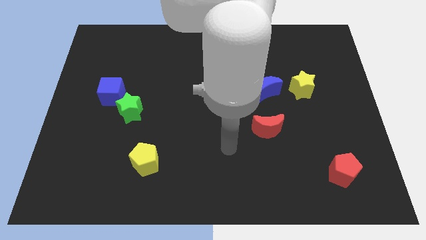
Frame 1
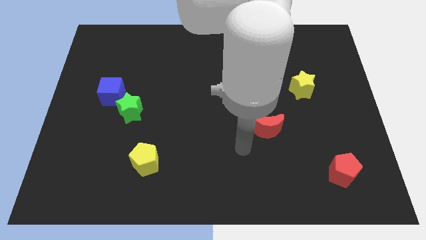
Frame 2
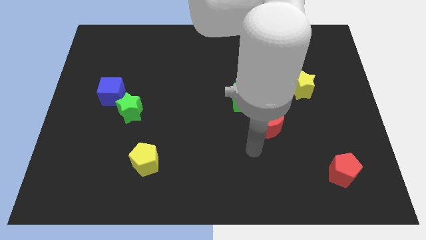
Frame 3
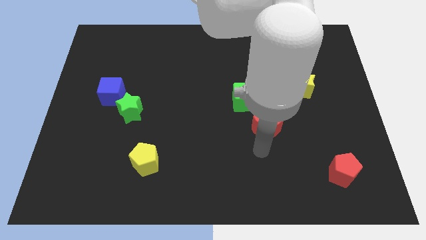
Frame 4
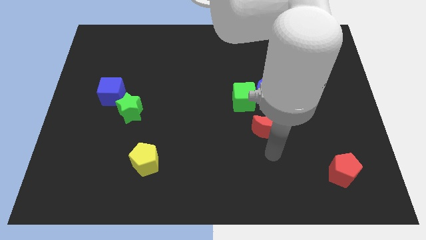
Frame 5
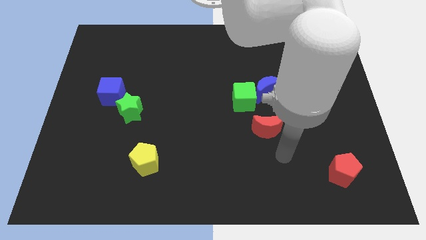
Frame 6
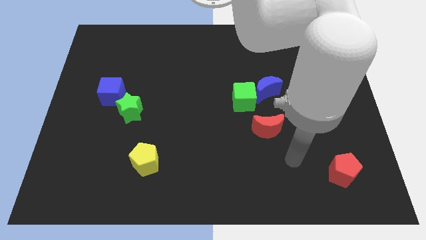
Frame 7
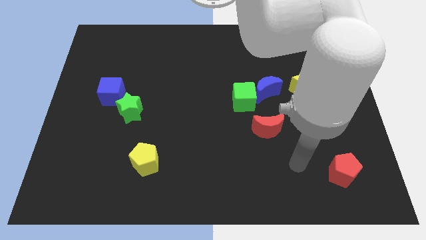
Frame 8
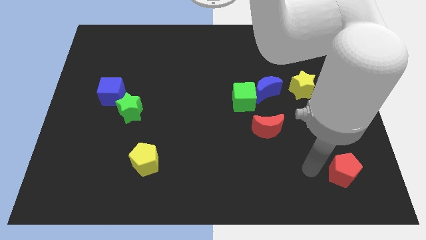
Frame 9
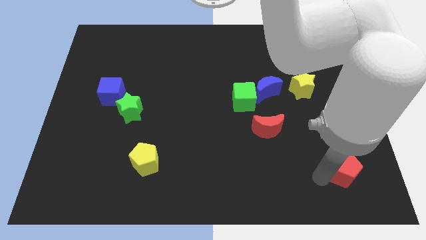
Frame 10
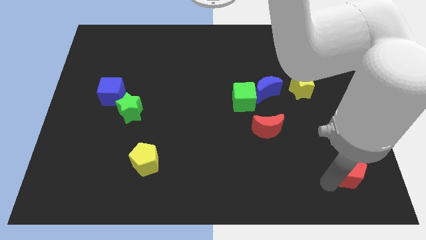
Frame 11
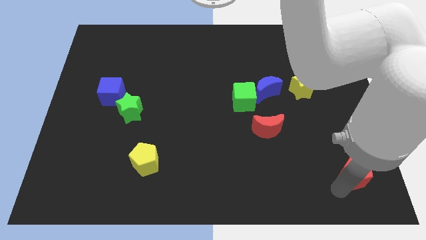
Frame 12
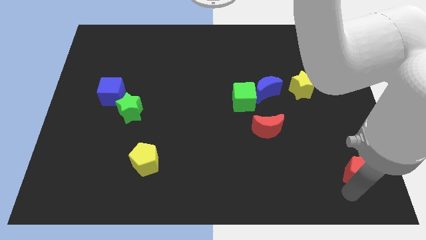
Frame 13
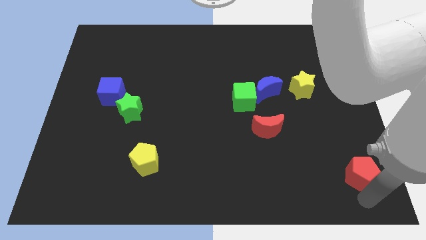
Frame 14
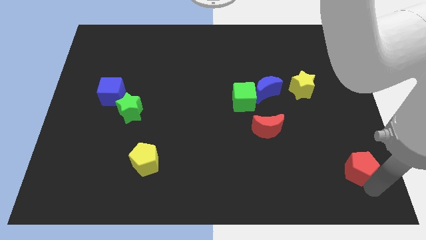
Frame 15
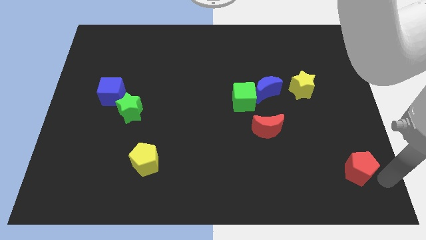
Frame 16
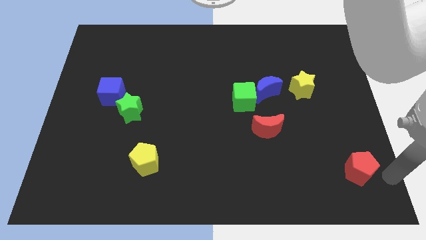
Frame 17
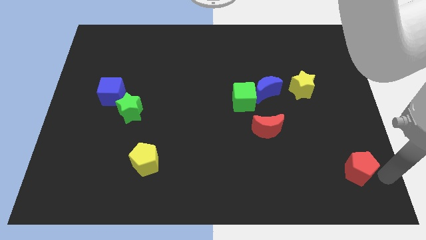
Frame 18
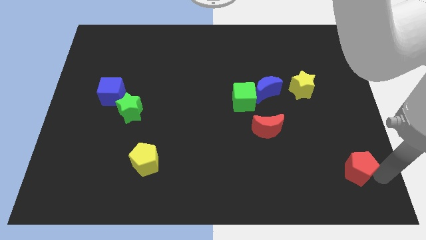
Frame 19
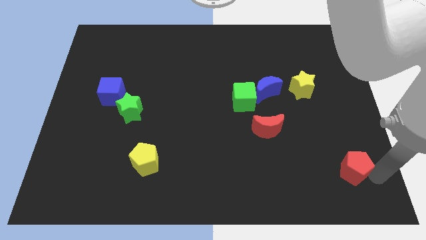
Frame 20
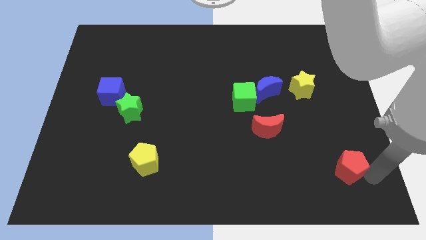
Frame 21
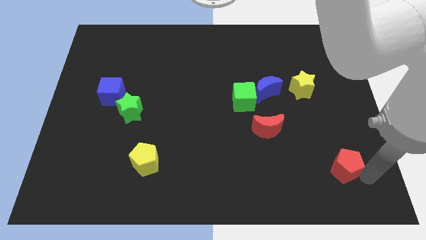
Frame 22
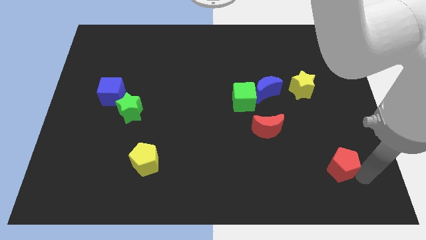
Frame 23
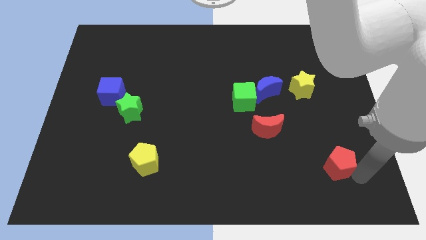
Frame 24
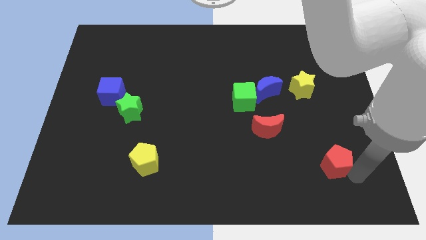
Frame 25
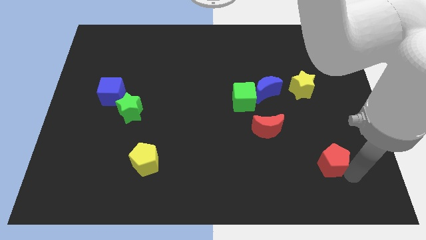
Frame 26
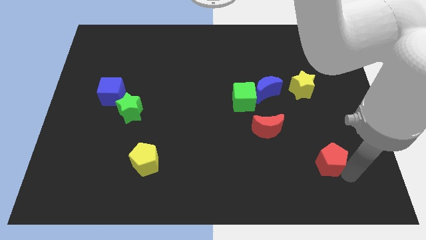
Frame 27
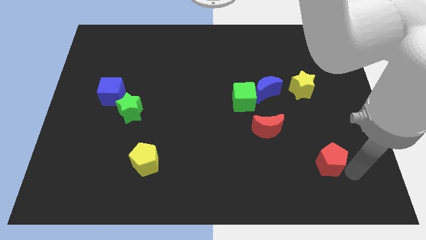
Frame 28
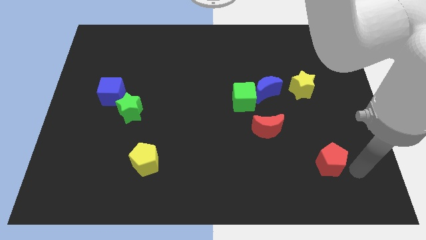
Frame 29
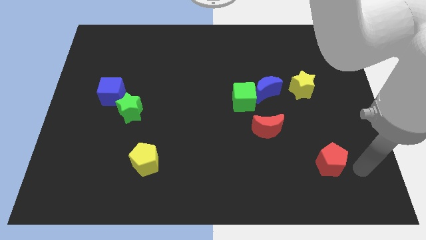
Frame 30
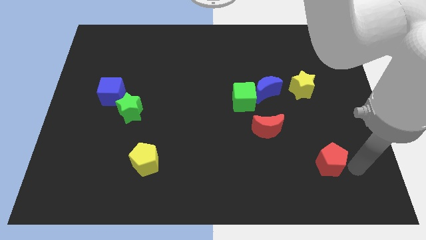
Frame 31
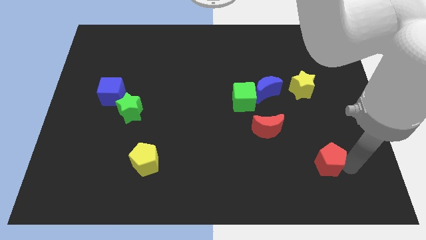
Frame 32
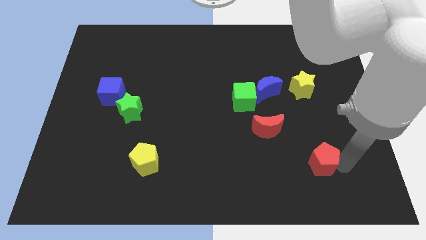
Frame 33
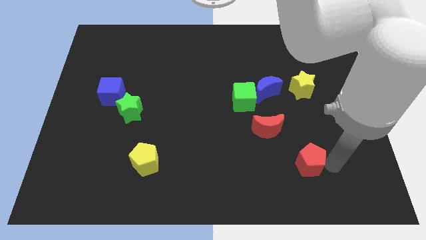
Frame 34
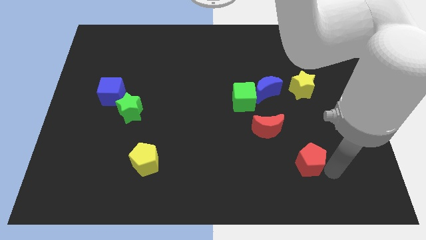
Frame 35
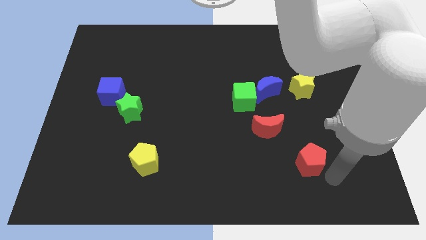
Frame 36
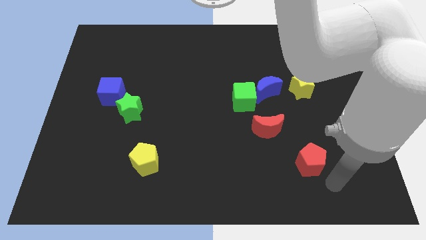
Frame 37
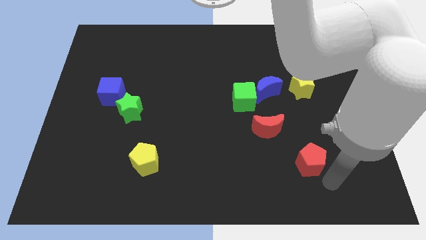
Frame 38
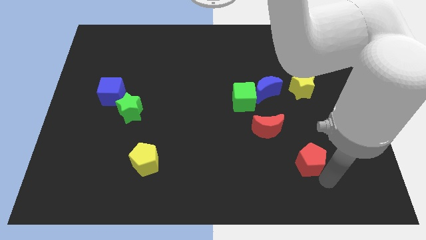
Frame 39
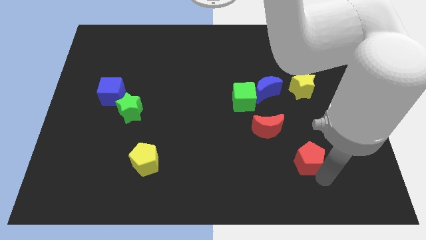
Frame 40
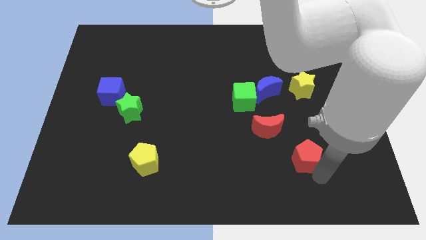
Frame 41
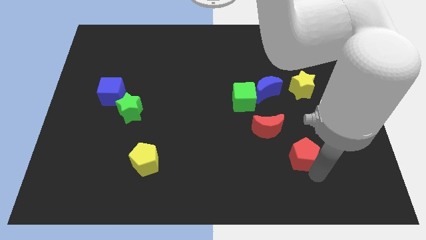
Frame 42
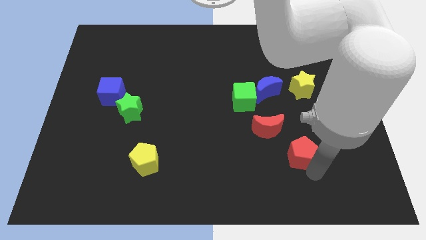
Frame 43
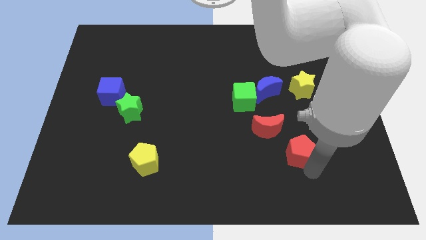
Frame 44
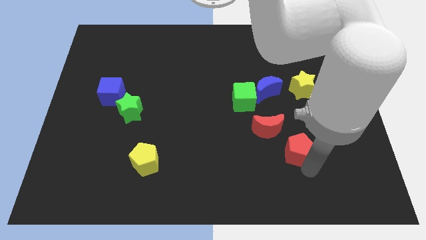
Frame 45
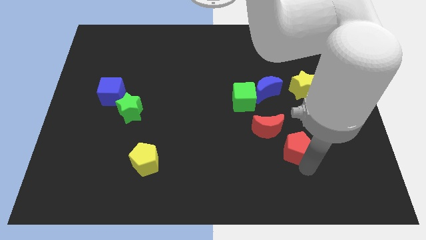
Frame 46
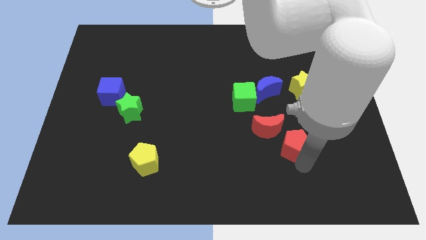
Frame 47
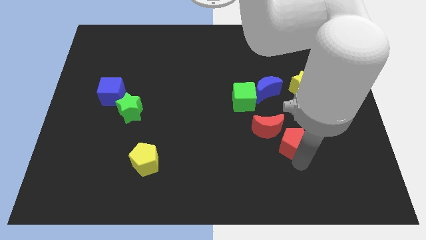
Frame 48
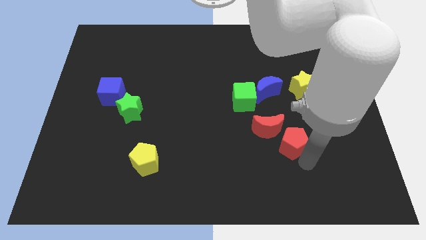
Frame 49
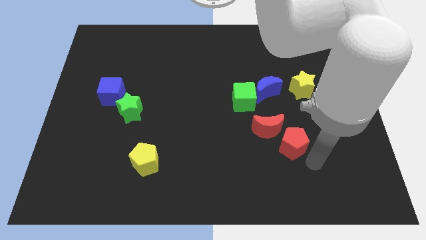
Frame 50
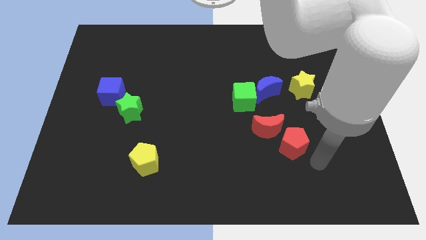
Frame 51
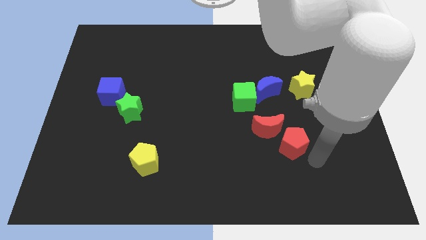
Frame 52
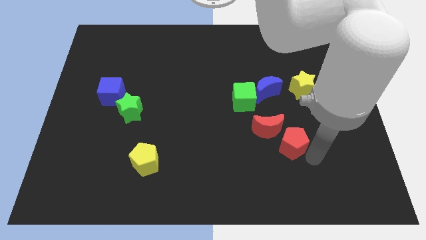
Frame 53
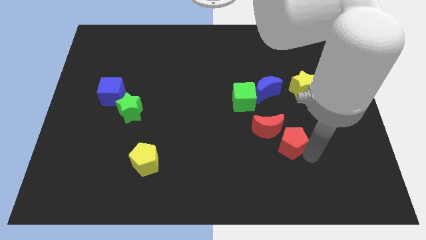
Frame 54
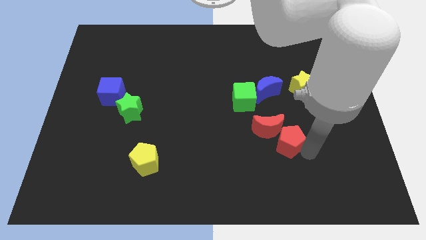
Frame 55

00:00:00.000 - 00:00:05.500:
slide the red pentagon to the red moon

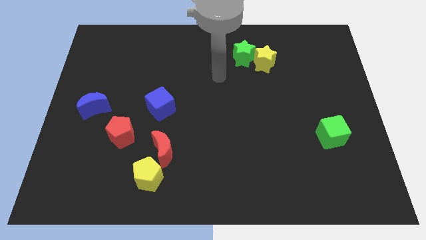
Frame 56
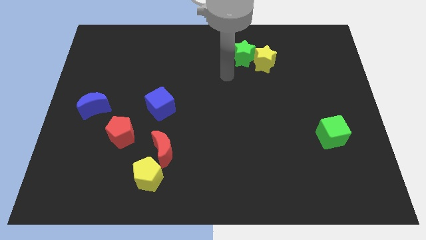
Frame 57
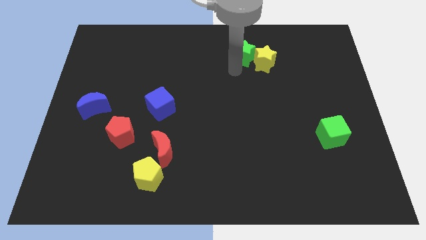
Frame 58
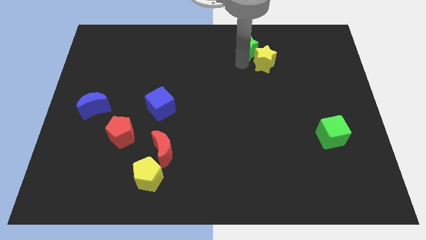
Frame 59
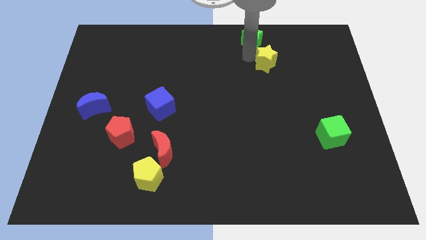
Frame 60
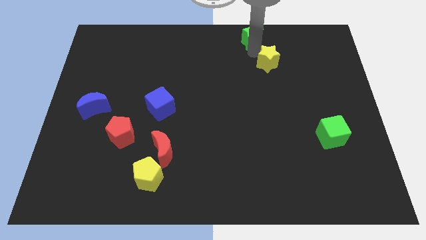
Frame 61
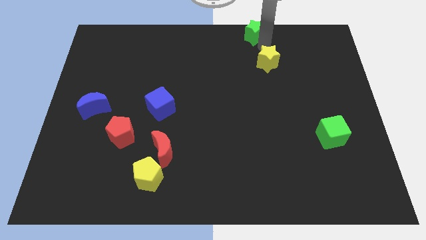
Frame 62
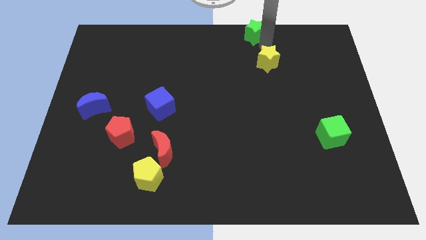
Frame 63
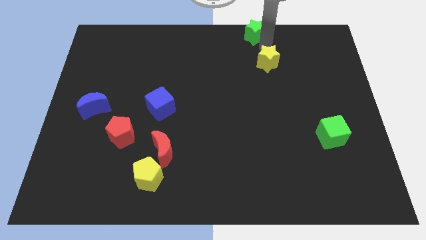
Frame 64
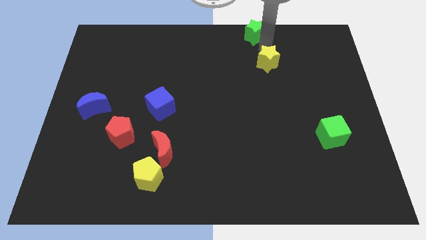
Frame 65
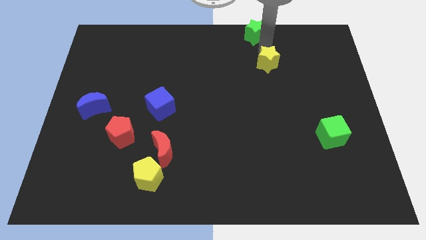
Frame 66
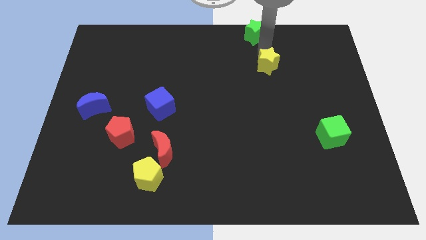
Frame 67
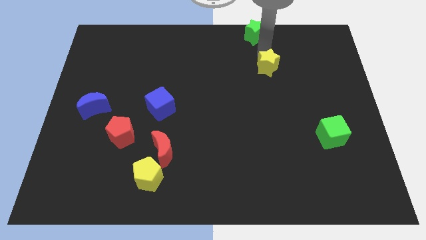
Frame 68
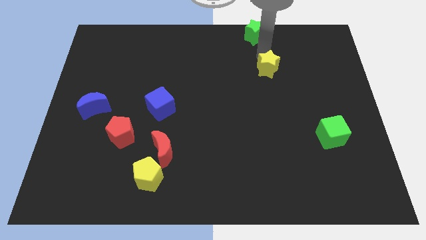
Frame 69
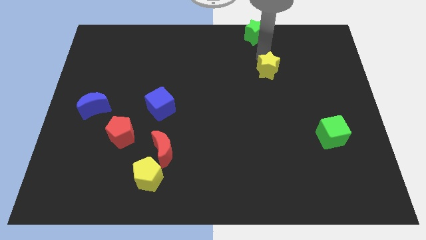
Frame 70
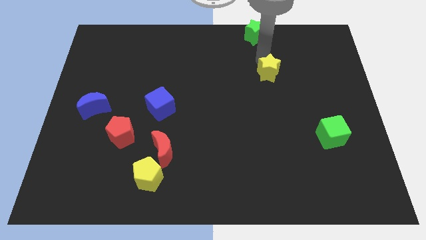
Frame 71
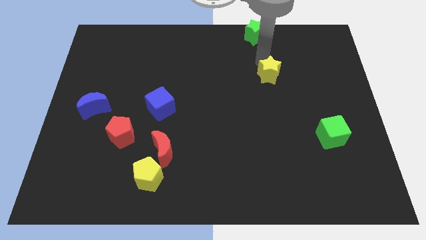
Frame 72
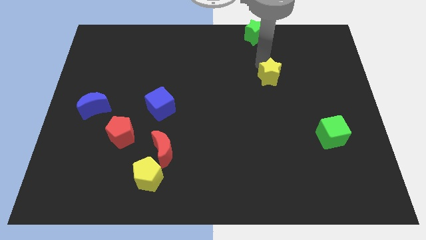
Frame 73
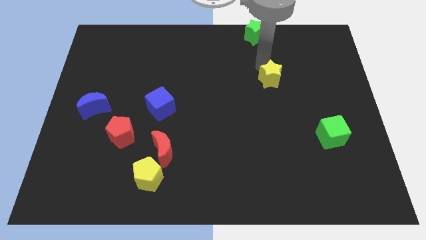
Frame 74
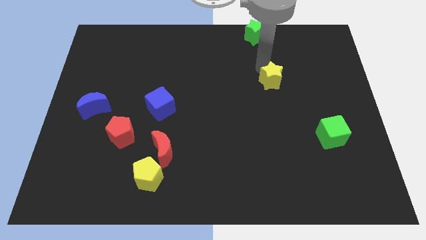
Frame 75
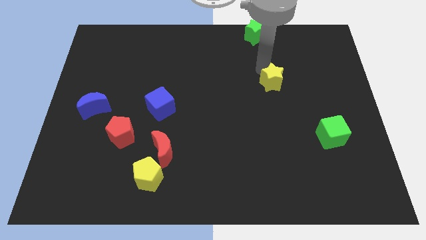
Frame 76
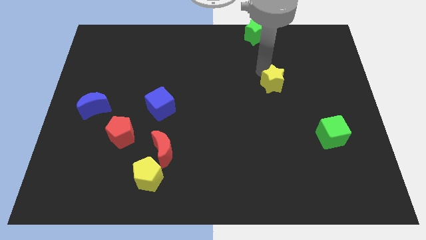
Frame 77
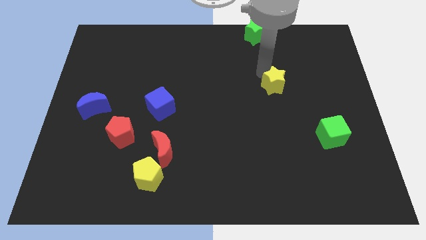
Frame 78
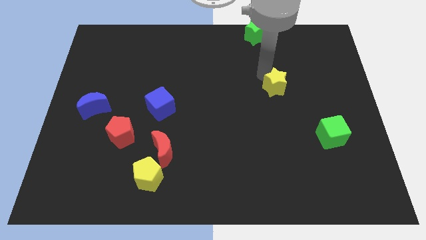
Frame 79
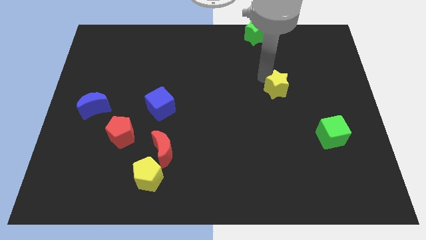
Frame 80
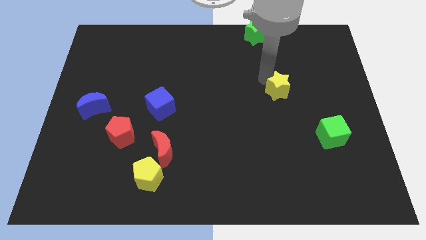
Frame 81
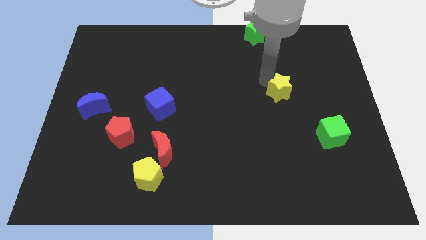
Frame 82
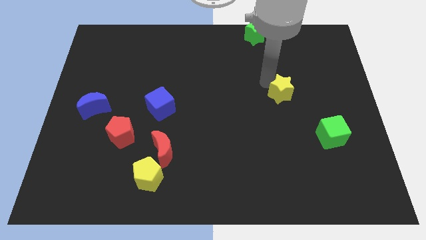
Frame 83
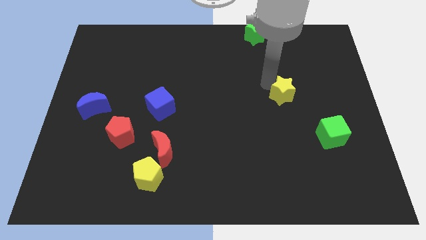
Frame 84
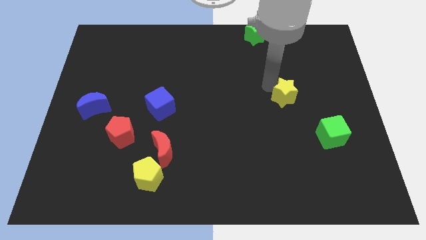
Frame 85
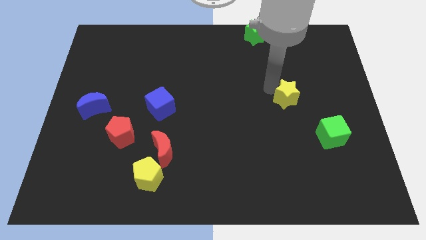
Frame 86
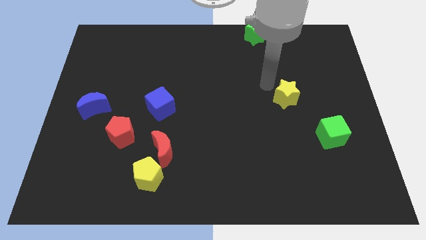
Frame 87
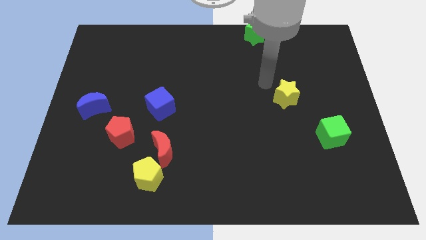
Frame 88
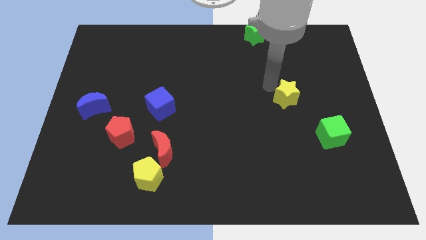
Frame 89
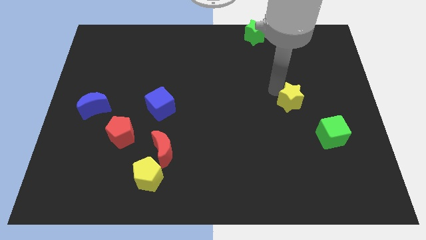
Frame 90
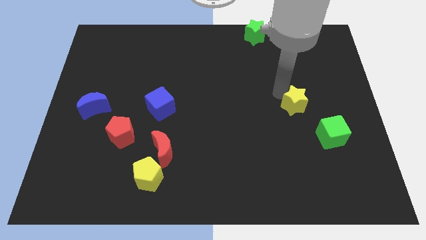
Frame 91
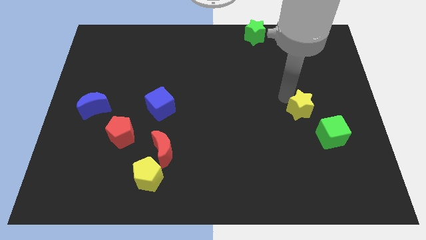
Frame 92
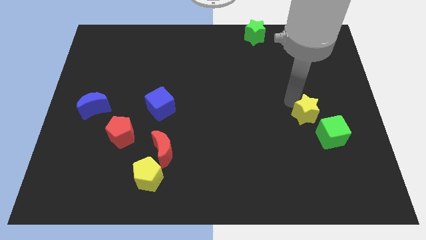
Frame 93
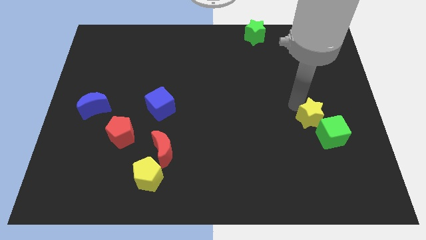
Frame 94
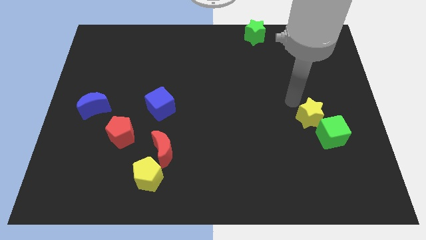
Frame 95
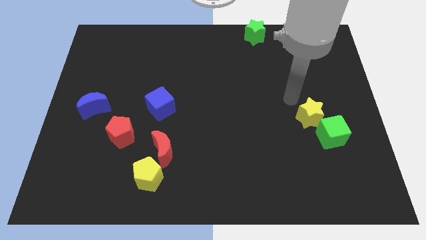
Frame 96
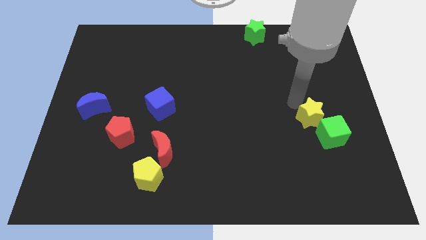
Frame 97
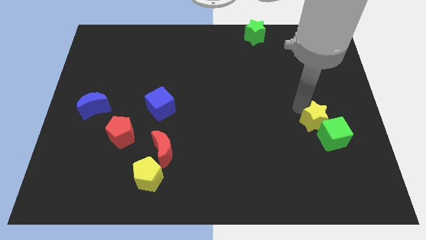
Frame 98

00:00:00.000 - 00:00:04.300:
put the yellow star towards the green cube
